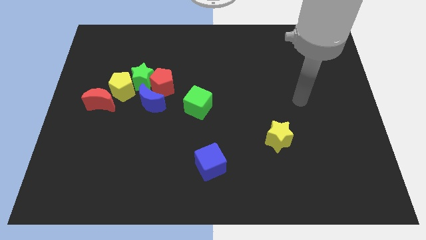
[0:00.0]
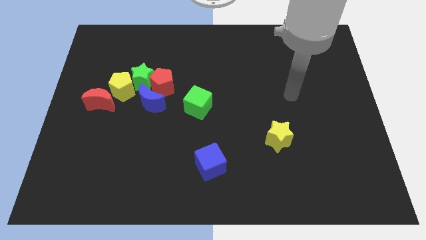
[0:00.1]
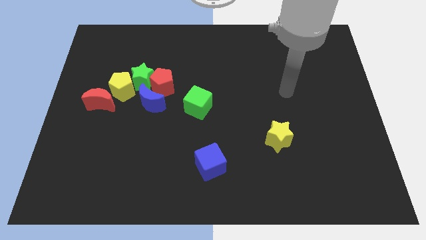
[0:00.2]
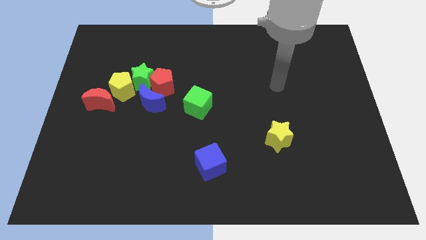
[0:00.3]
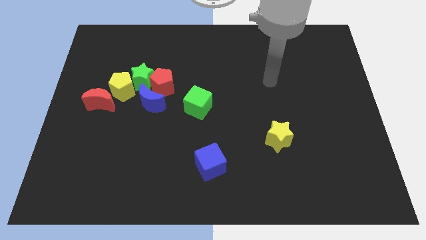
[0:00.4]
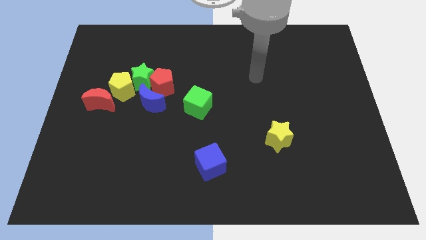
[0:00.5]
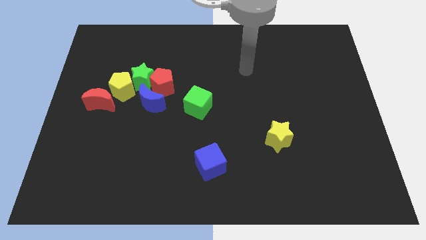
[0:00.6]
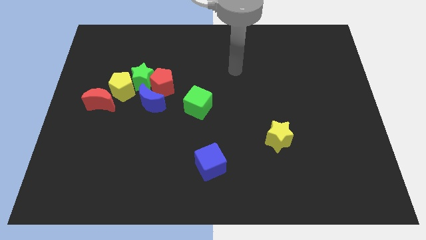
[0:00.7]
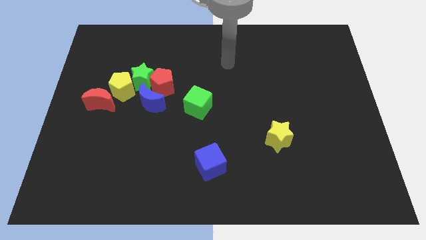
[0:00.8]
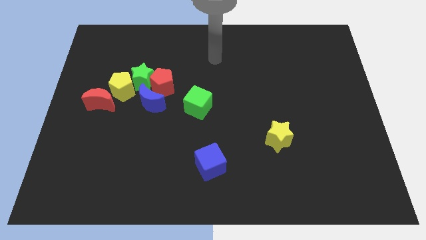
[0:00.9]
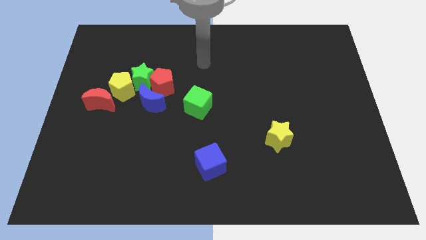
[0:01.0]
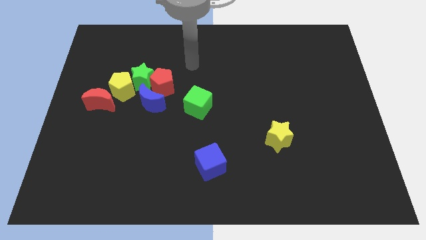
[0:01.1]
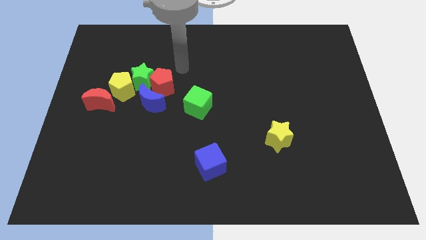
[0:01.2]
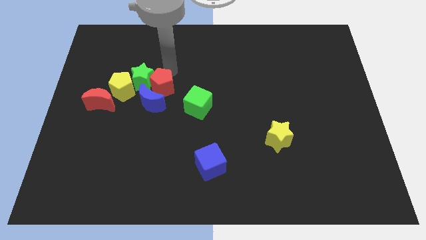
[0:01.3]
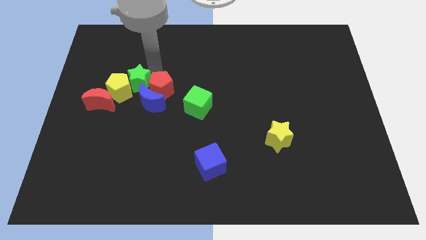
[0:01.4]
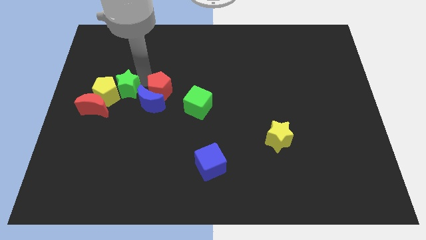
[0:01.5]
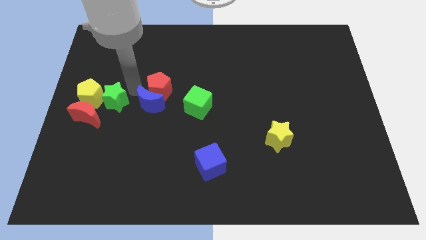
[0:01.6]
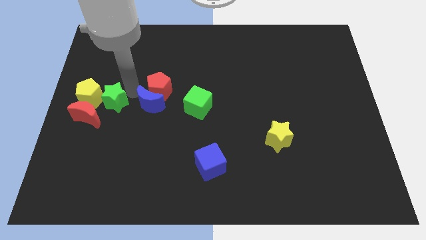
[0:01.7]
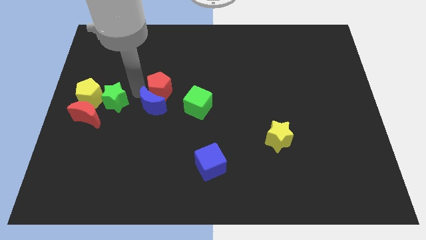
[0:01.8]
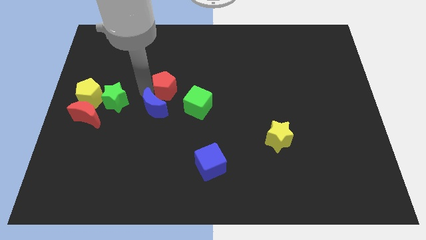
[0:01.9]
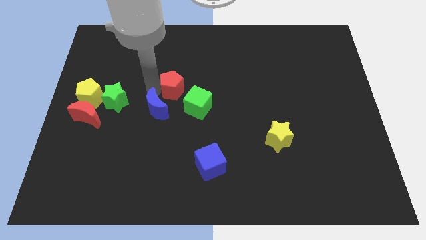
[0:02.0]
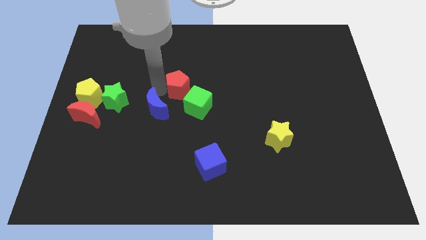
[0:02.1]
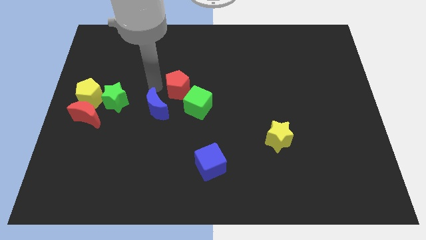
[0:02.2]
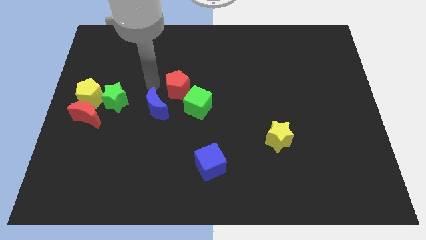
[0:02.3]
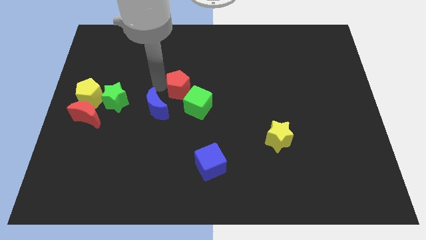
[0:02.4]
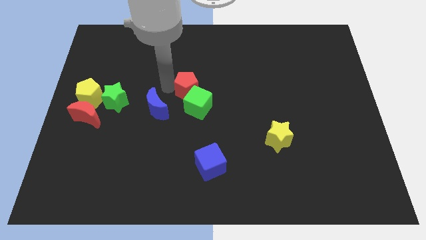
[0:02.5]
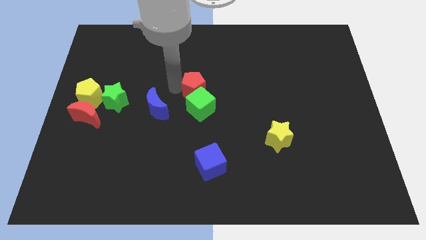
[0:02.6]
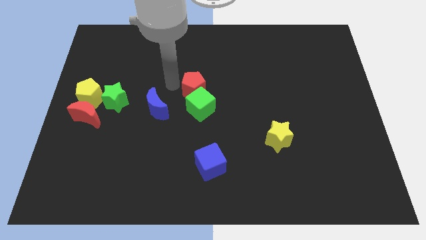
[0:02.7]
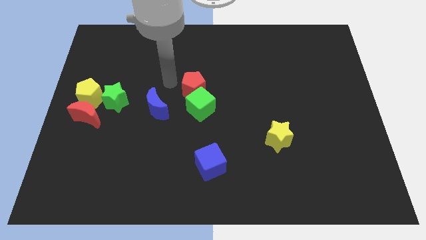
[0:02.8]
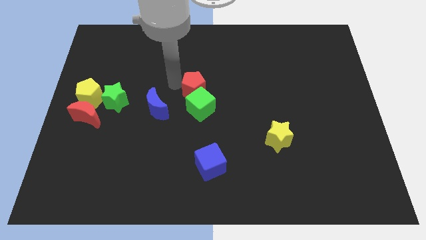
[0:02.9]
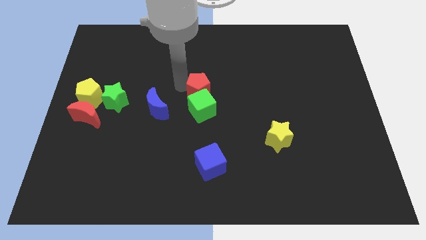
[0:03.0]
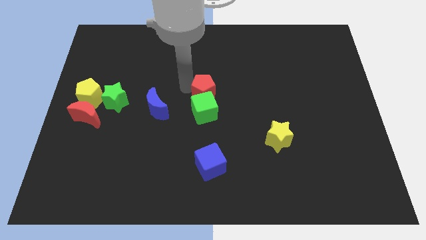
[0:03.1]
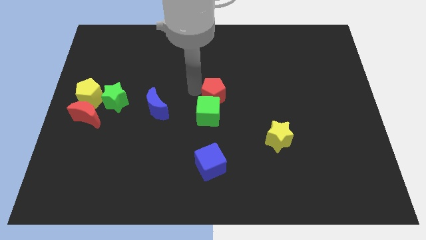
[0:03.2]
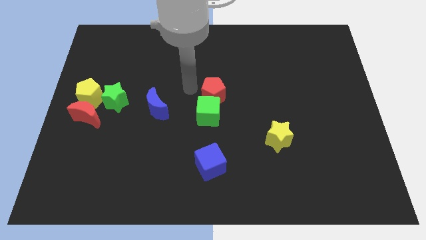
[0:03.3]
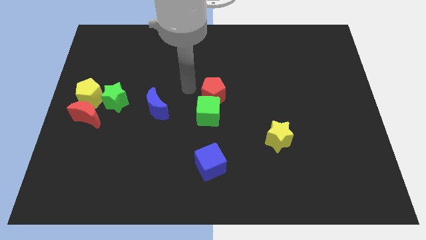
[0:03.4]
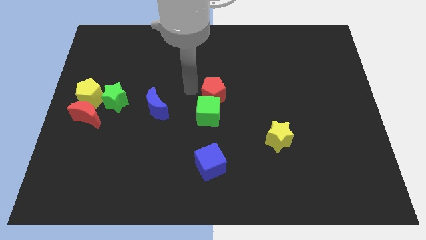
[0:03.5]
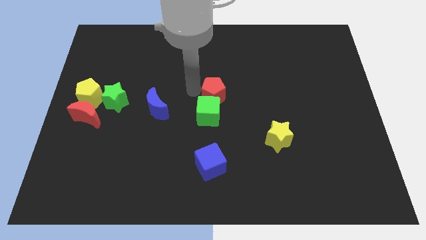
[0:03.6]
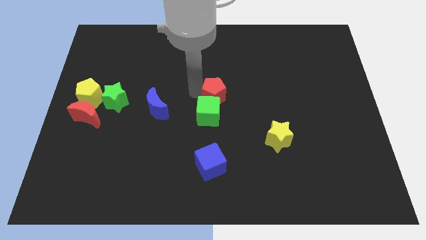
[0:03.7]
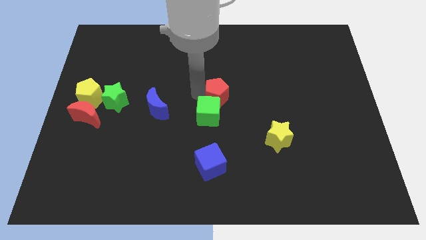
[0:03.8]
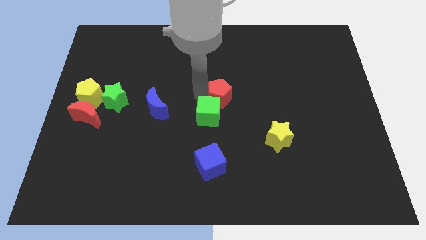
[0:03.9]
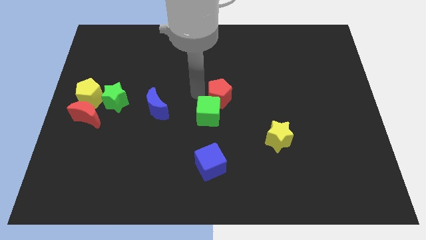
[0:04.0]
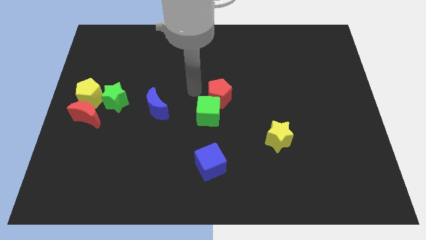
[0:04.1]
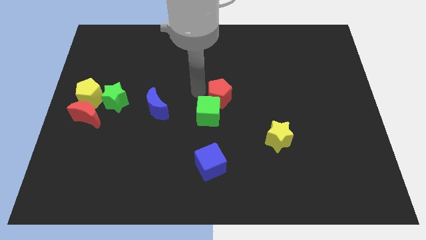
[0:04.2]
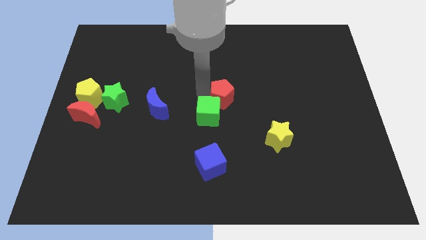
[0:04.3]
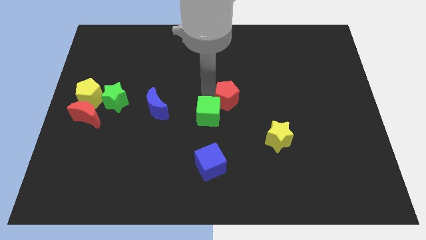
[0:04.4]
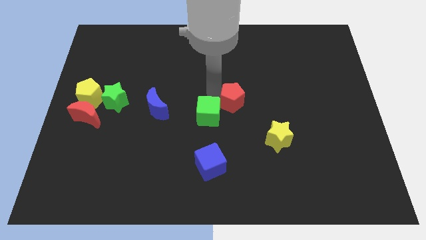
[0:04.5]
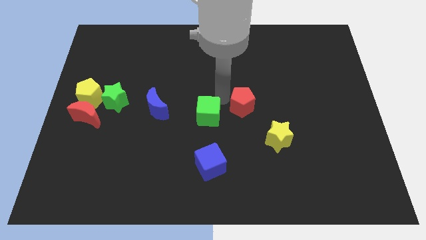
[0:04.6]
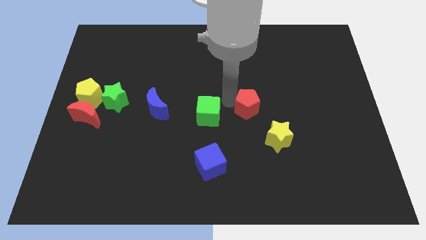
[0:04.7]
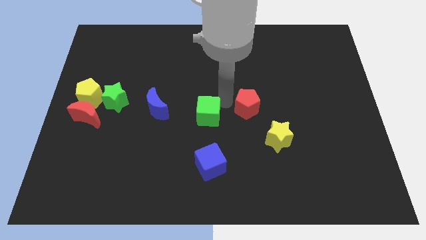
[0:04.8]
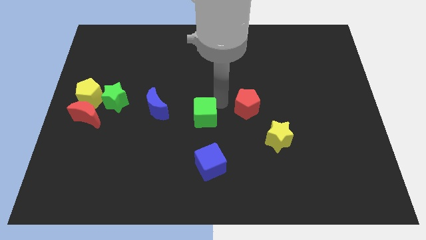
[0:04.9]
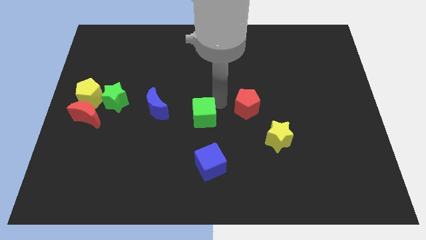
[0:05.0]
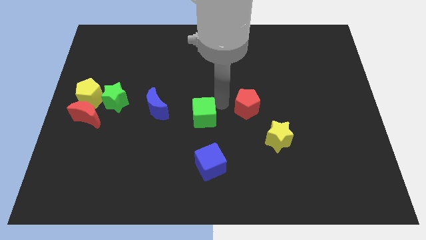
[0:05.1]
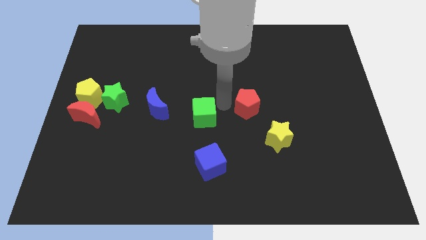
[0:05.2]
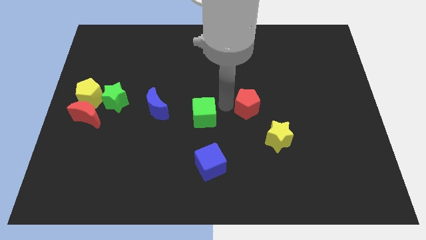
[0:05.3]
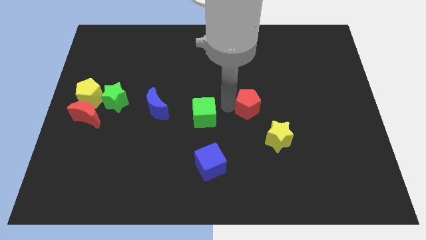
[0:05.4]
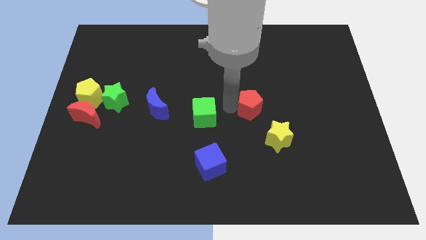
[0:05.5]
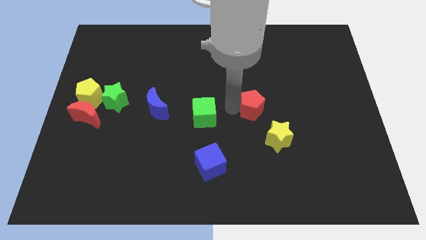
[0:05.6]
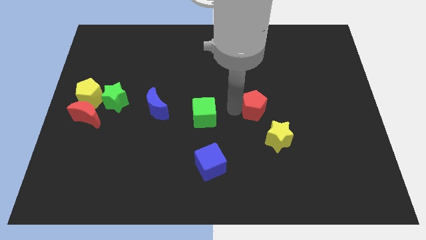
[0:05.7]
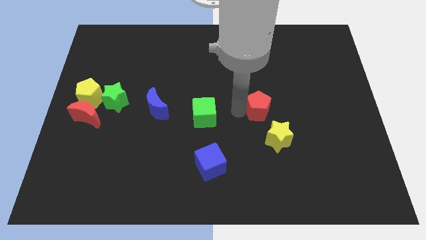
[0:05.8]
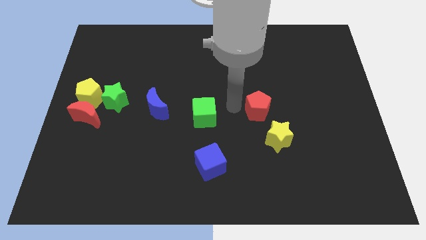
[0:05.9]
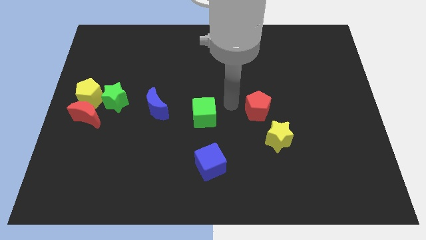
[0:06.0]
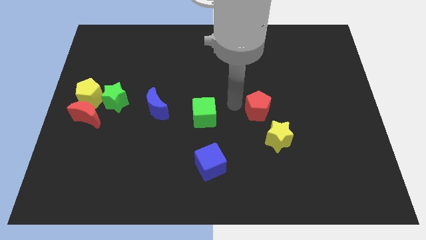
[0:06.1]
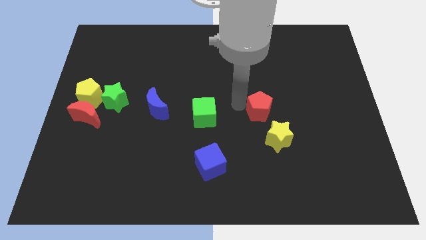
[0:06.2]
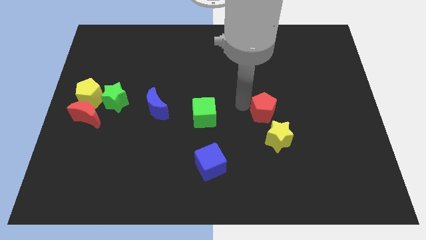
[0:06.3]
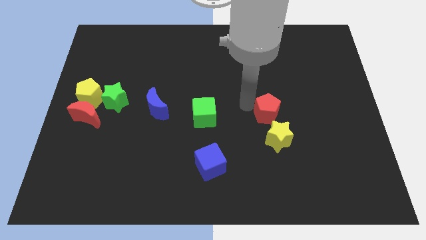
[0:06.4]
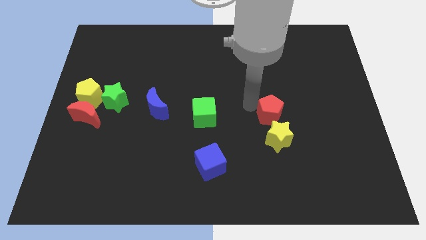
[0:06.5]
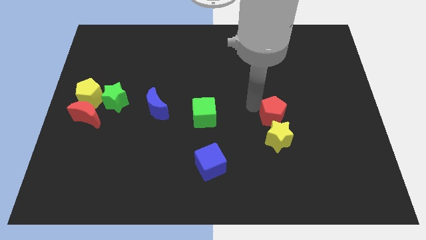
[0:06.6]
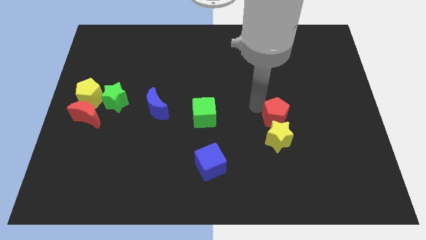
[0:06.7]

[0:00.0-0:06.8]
move the red pentagon diagonally up and to the right of the yellow star

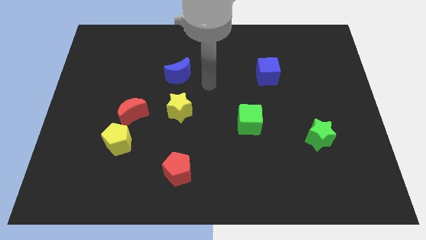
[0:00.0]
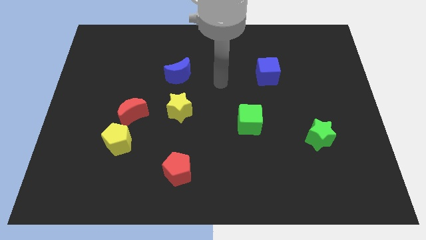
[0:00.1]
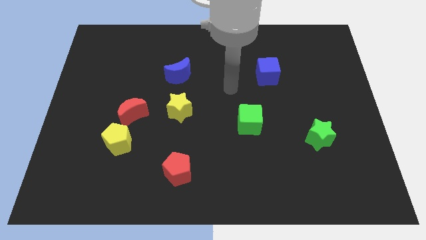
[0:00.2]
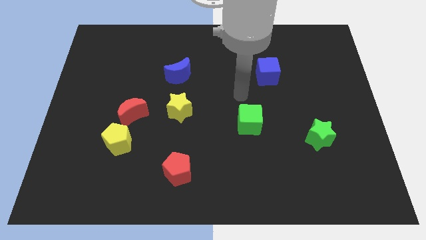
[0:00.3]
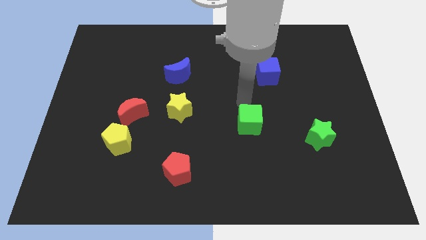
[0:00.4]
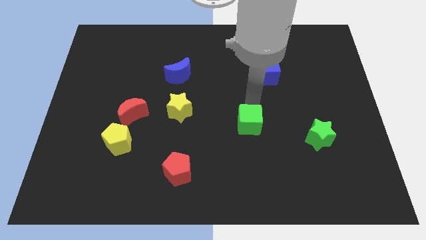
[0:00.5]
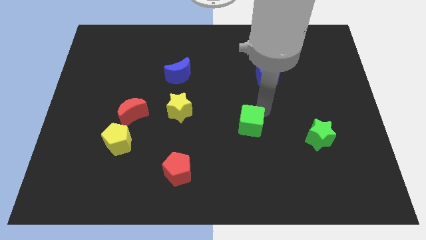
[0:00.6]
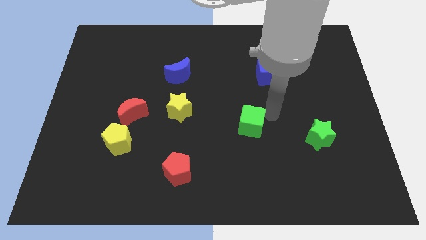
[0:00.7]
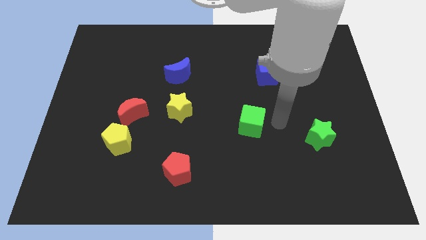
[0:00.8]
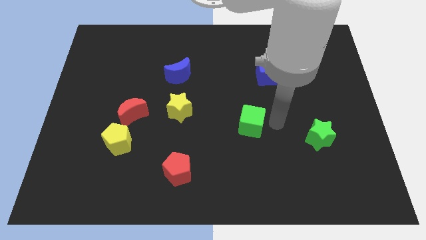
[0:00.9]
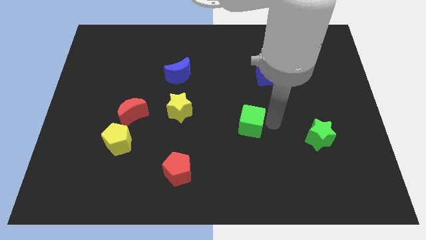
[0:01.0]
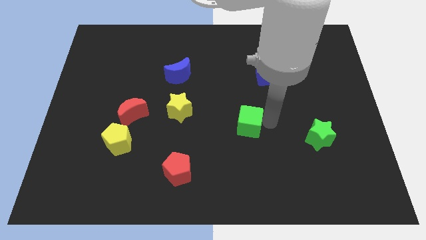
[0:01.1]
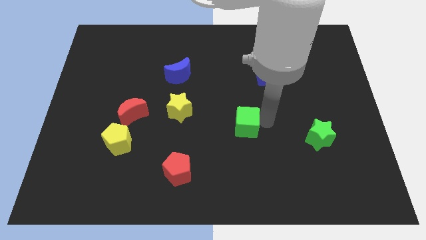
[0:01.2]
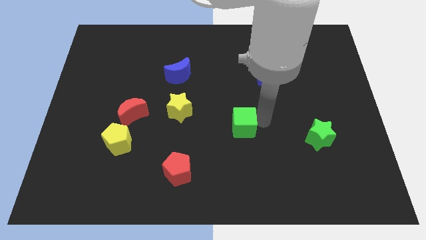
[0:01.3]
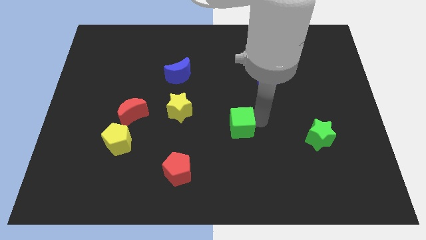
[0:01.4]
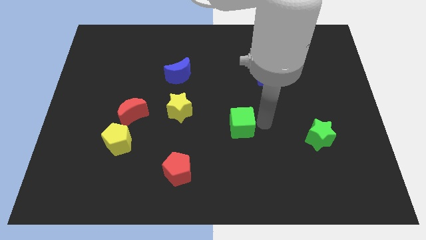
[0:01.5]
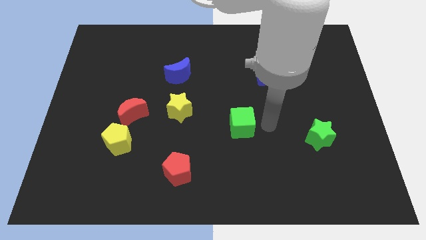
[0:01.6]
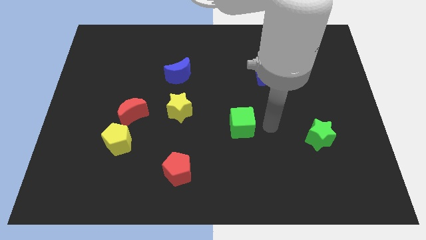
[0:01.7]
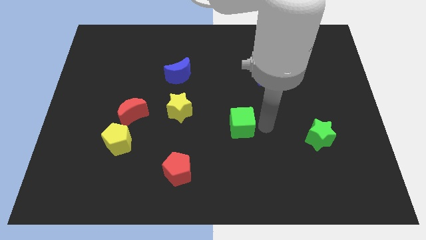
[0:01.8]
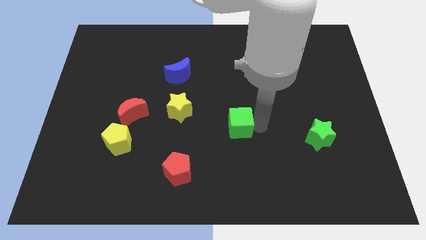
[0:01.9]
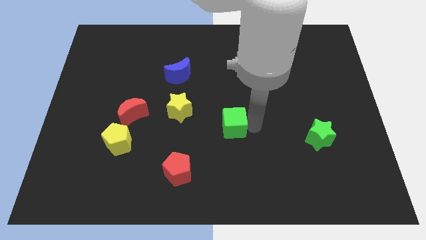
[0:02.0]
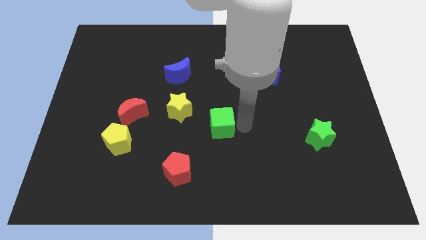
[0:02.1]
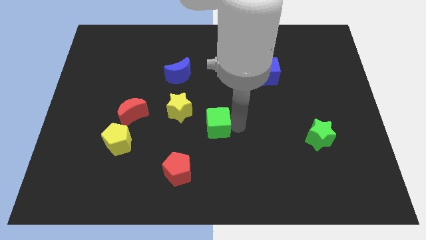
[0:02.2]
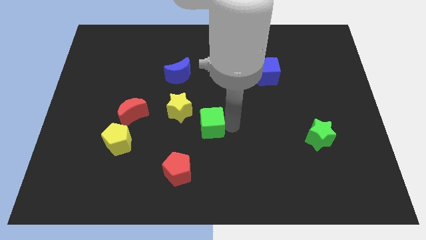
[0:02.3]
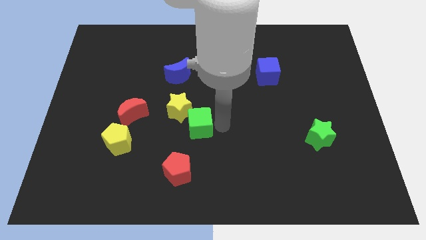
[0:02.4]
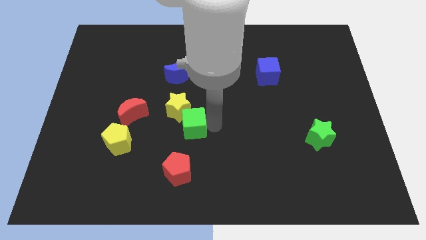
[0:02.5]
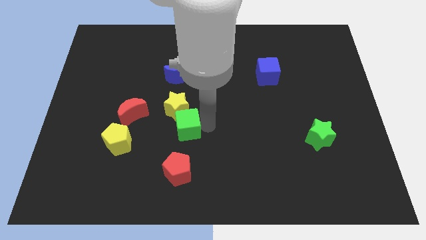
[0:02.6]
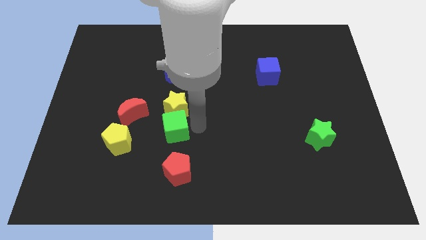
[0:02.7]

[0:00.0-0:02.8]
put the green cube diagonally down and to the right of the red moon
